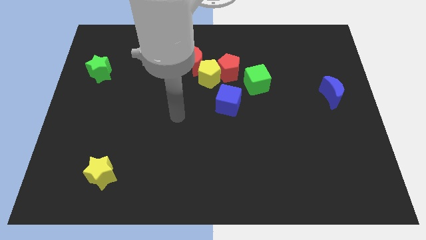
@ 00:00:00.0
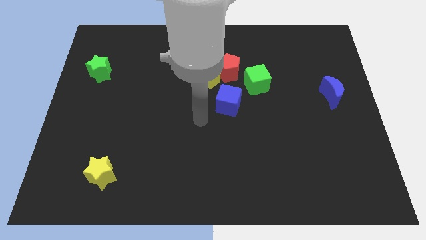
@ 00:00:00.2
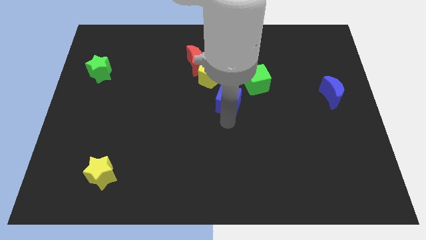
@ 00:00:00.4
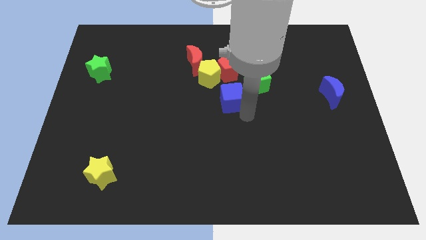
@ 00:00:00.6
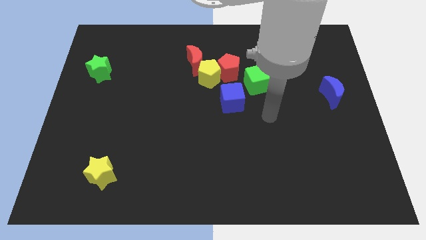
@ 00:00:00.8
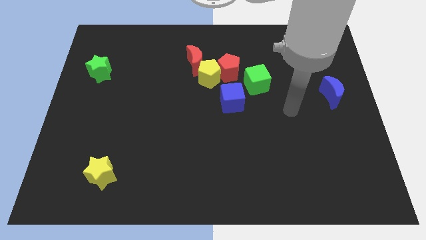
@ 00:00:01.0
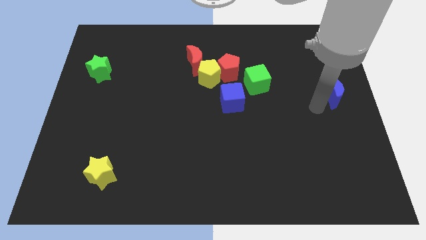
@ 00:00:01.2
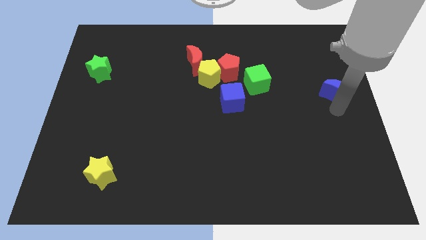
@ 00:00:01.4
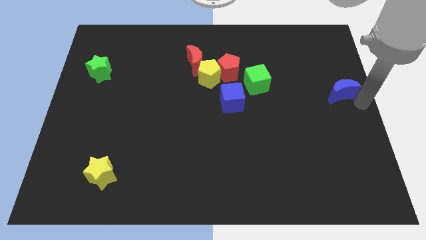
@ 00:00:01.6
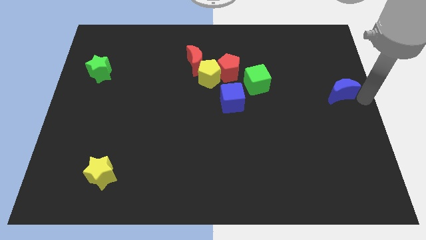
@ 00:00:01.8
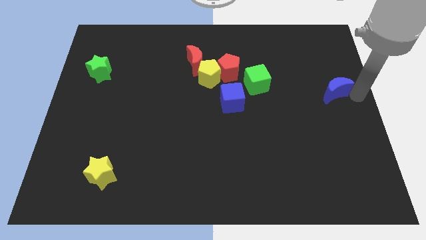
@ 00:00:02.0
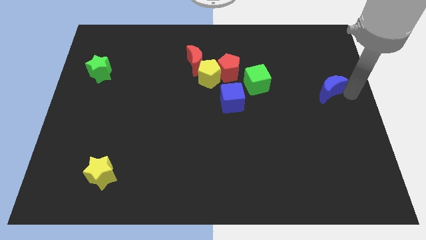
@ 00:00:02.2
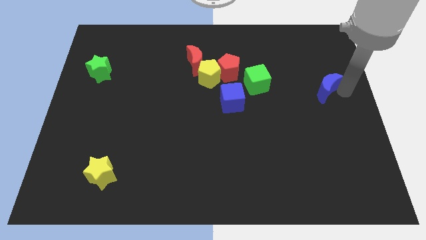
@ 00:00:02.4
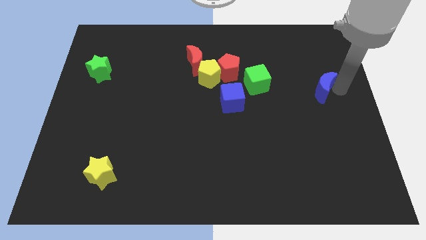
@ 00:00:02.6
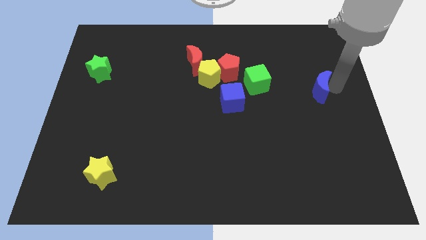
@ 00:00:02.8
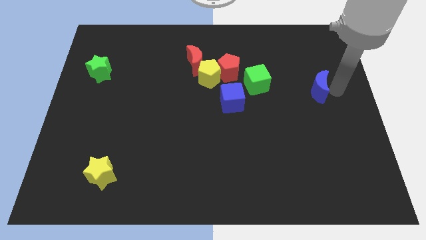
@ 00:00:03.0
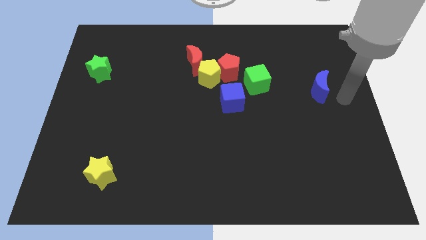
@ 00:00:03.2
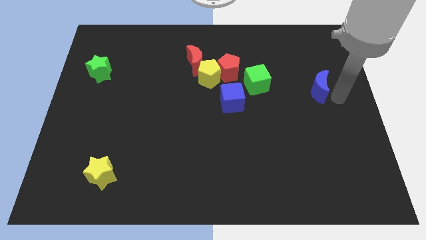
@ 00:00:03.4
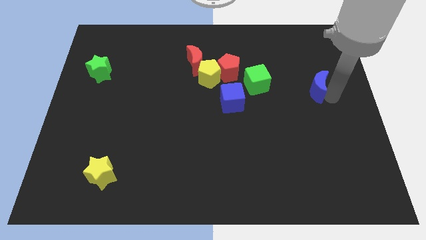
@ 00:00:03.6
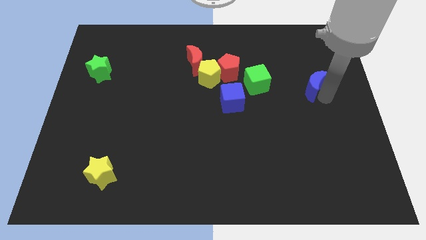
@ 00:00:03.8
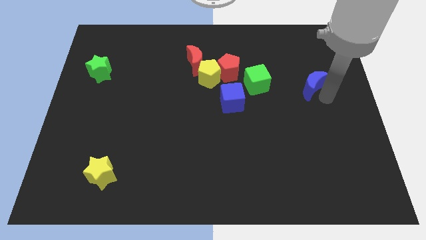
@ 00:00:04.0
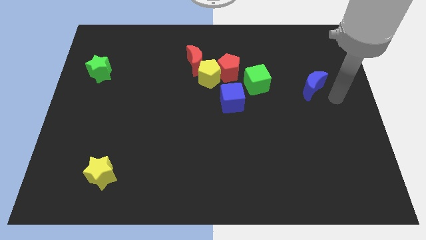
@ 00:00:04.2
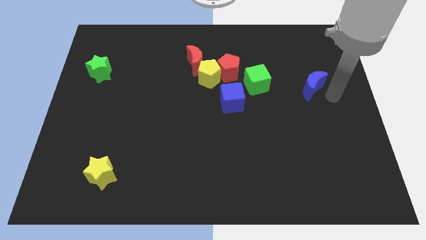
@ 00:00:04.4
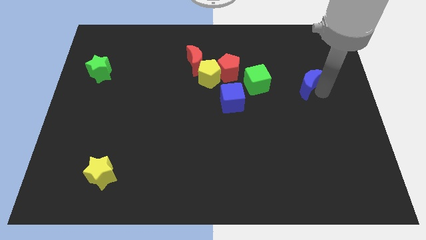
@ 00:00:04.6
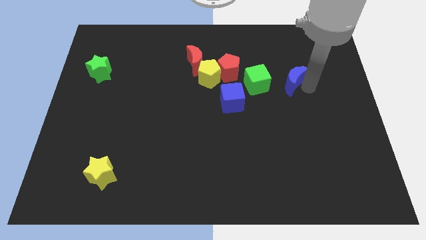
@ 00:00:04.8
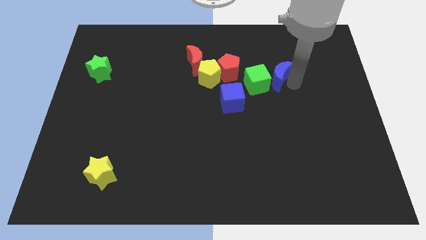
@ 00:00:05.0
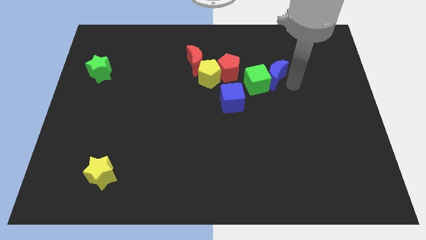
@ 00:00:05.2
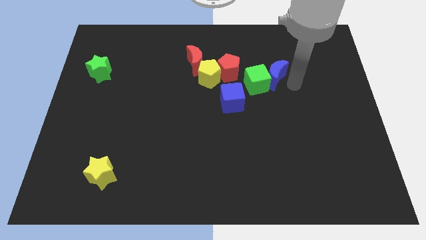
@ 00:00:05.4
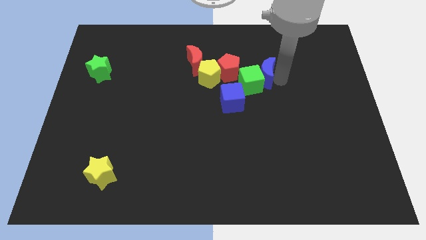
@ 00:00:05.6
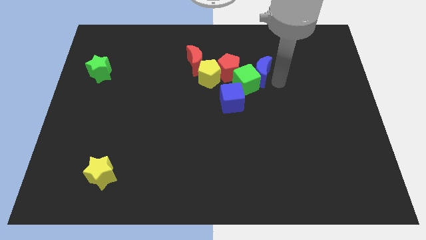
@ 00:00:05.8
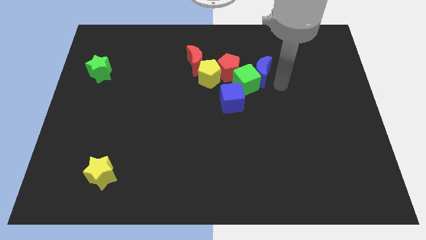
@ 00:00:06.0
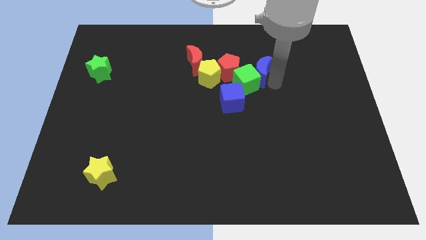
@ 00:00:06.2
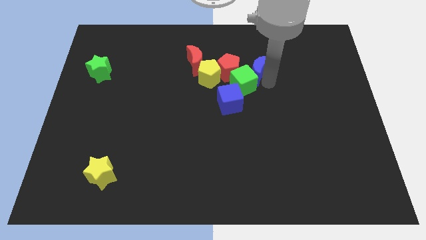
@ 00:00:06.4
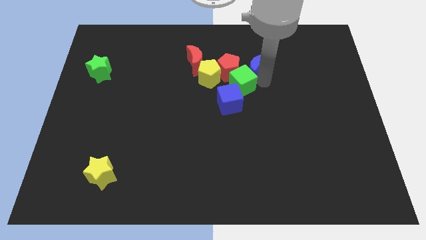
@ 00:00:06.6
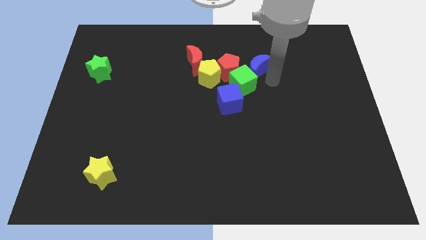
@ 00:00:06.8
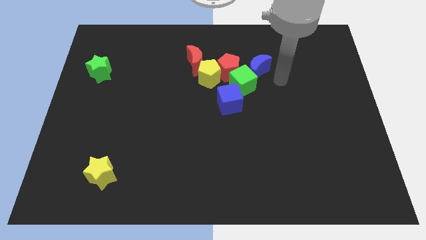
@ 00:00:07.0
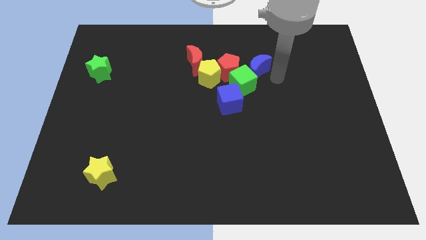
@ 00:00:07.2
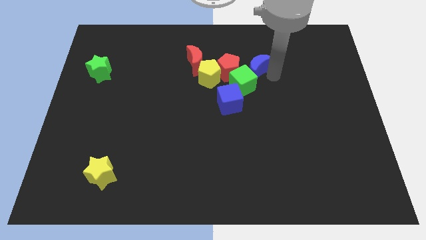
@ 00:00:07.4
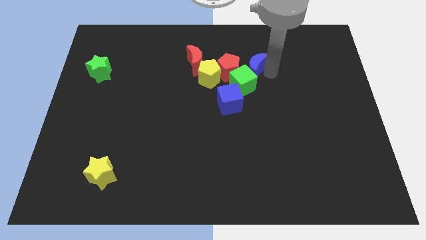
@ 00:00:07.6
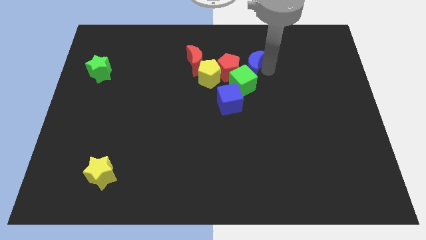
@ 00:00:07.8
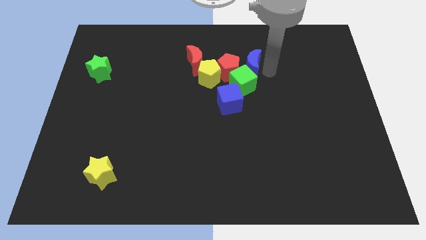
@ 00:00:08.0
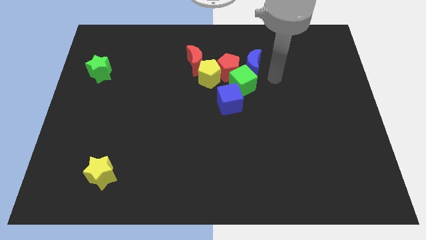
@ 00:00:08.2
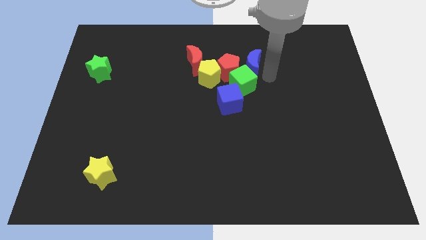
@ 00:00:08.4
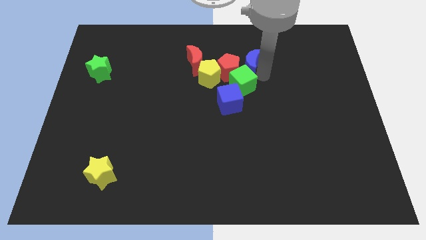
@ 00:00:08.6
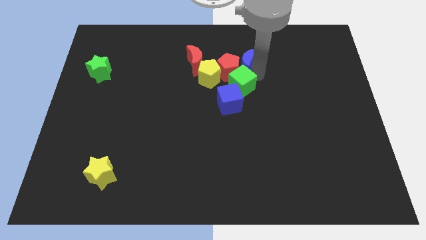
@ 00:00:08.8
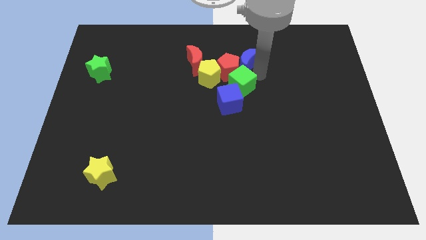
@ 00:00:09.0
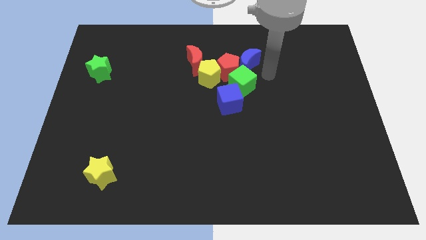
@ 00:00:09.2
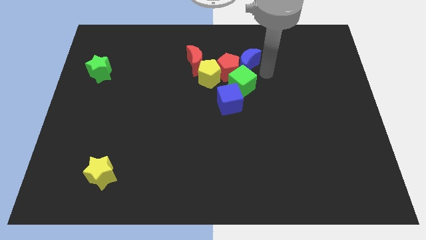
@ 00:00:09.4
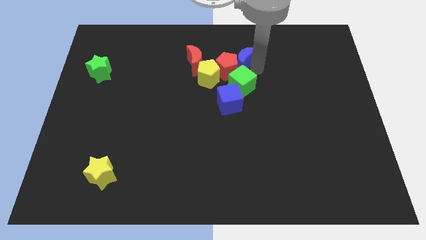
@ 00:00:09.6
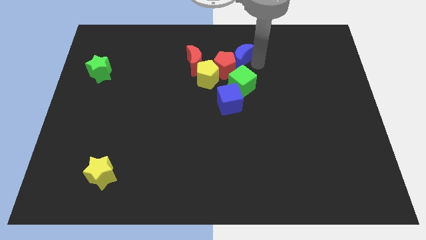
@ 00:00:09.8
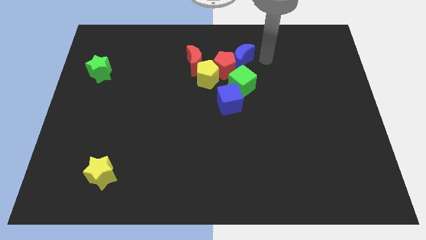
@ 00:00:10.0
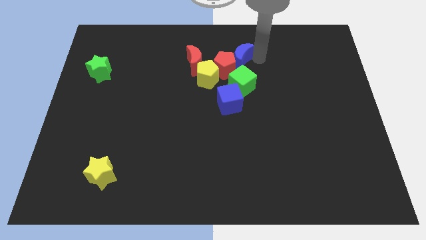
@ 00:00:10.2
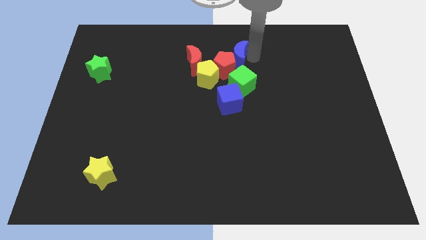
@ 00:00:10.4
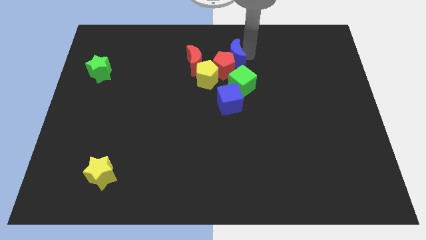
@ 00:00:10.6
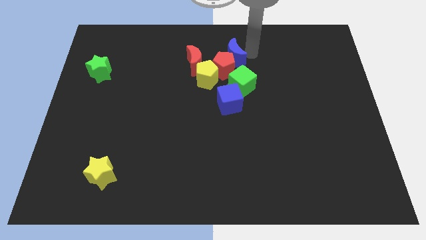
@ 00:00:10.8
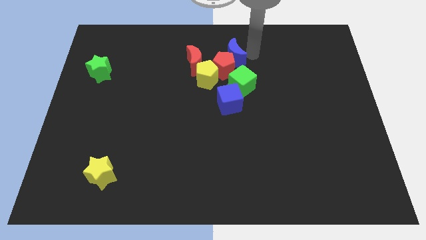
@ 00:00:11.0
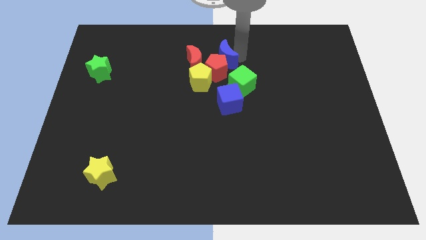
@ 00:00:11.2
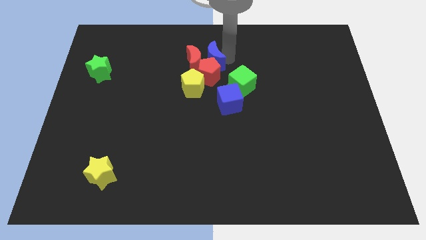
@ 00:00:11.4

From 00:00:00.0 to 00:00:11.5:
push the blue moon close to the red moon
